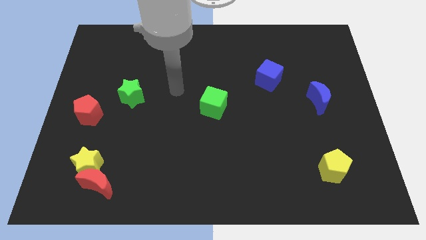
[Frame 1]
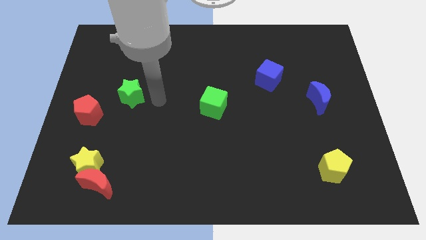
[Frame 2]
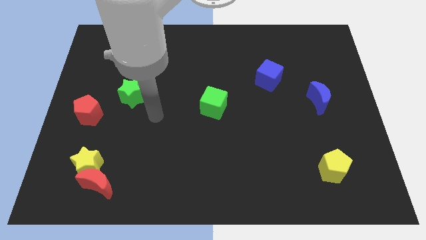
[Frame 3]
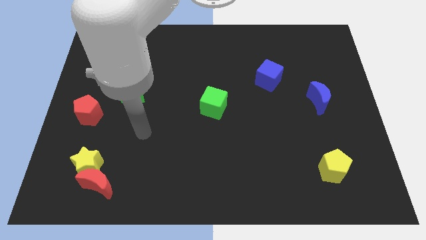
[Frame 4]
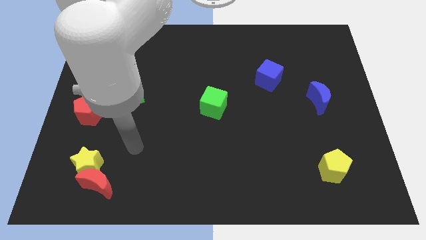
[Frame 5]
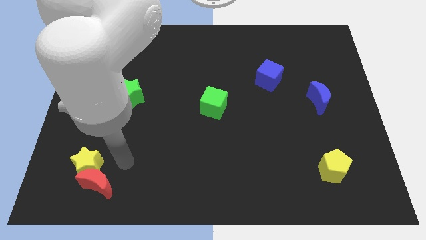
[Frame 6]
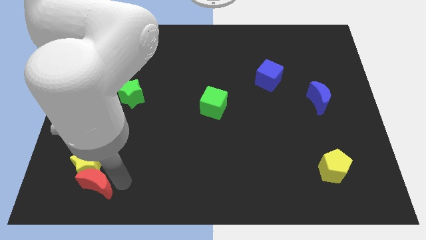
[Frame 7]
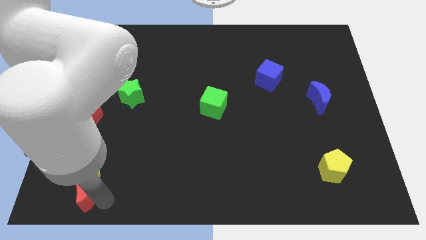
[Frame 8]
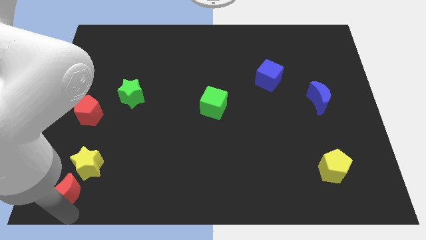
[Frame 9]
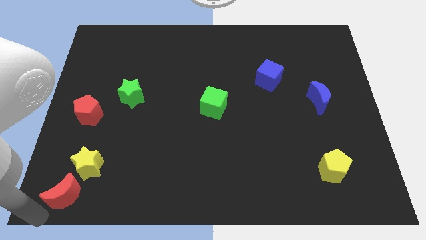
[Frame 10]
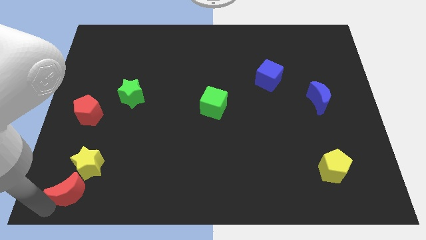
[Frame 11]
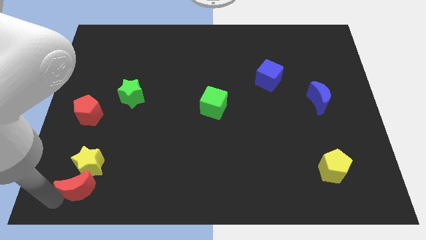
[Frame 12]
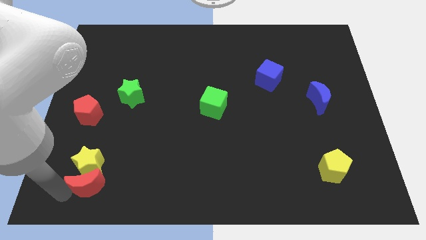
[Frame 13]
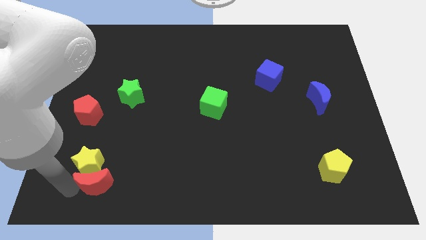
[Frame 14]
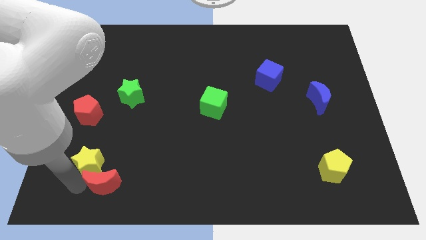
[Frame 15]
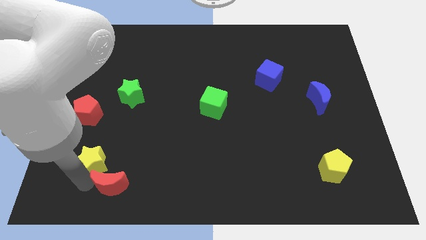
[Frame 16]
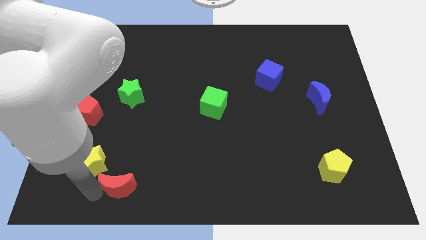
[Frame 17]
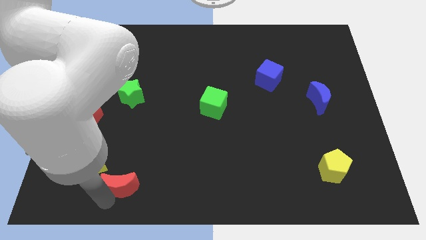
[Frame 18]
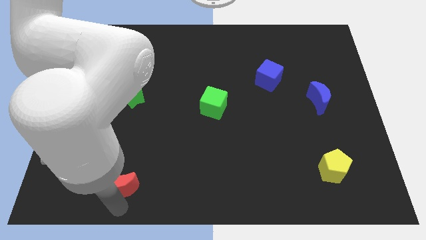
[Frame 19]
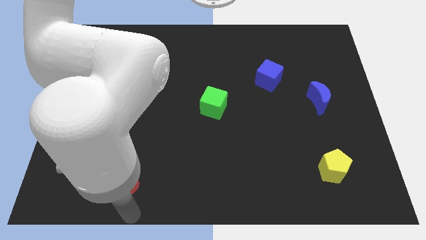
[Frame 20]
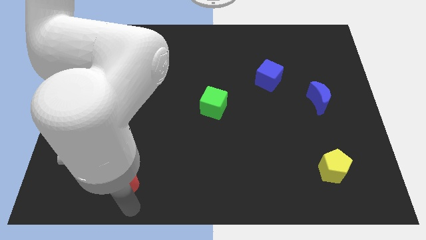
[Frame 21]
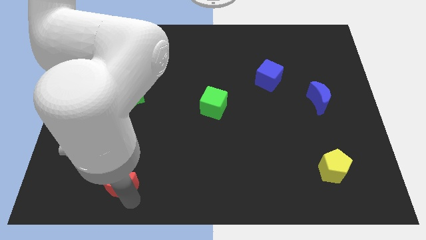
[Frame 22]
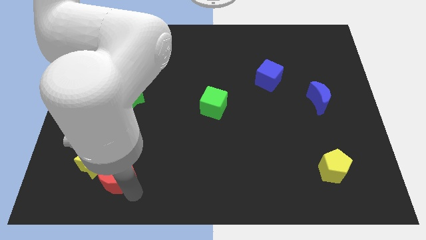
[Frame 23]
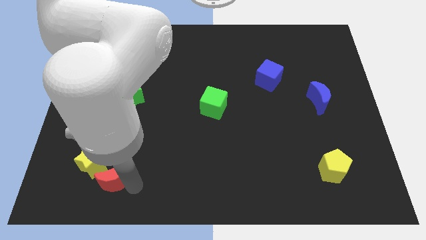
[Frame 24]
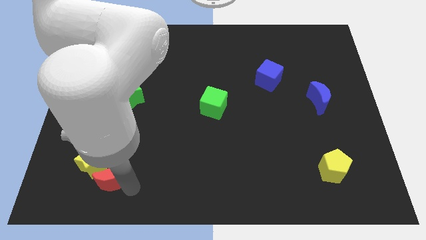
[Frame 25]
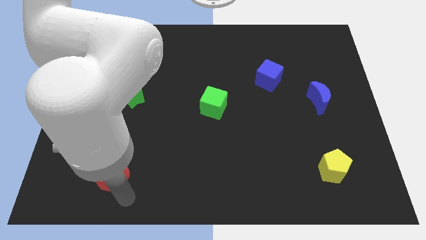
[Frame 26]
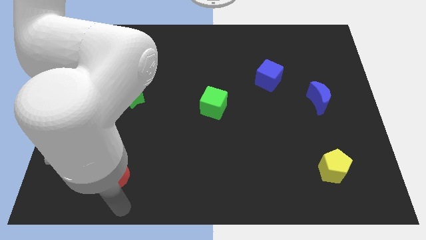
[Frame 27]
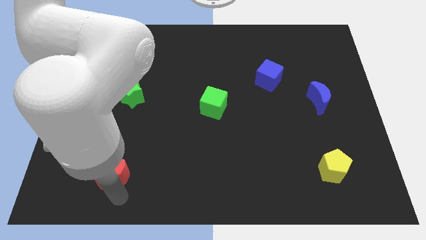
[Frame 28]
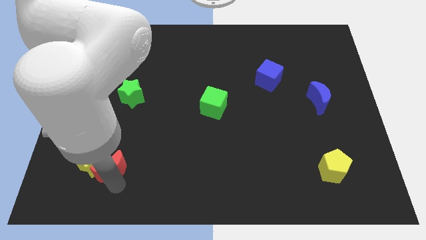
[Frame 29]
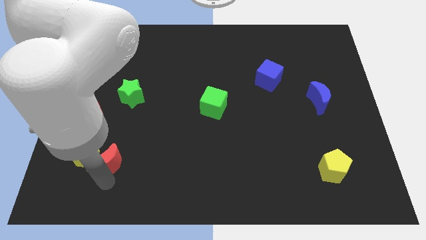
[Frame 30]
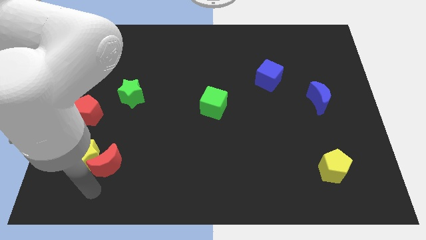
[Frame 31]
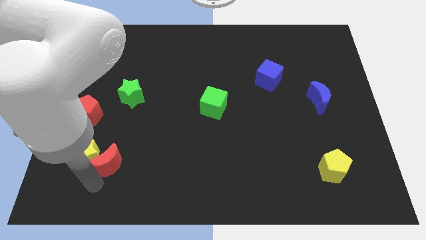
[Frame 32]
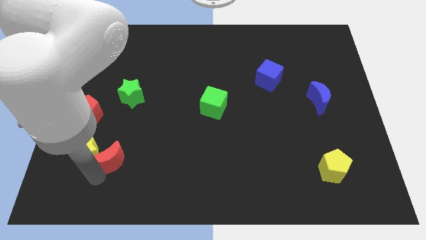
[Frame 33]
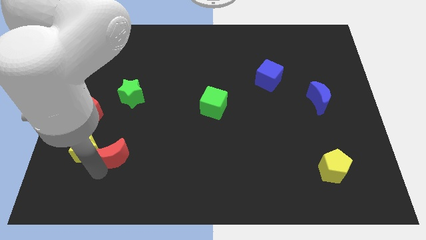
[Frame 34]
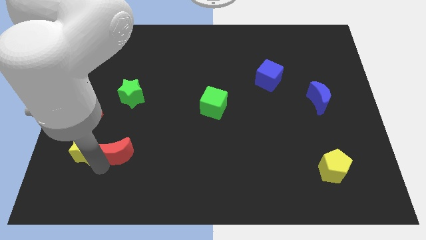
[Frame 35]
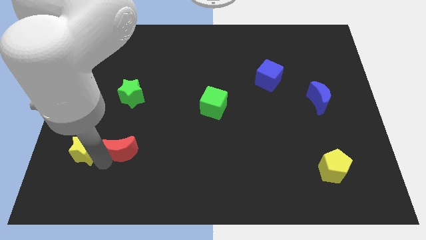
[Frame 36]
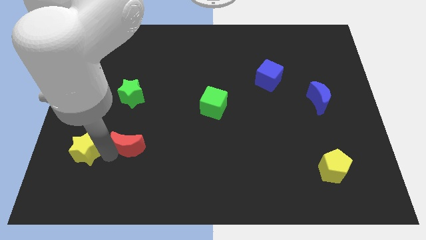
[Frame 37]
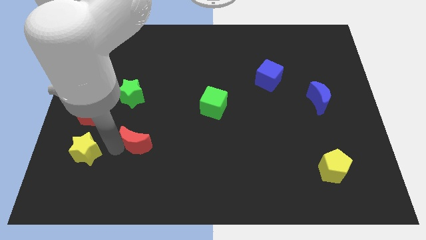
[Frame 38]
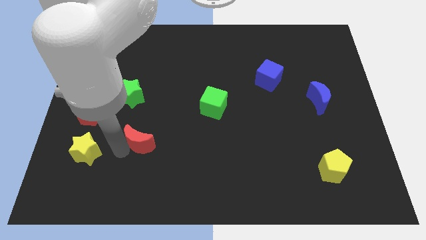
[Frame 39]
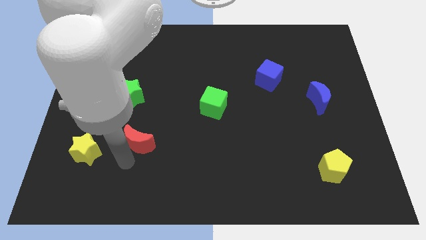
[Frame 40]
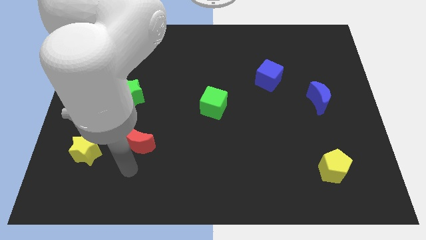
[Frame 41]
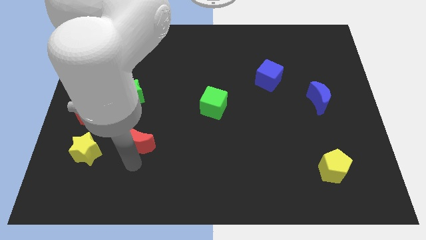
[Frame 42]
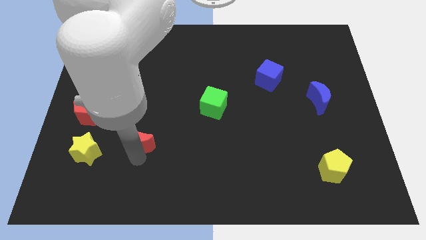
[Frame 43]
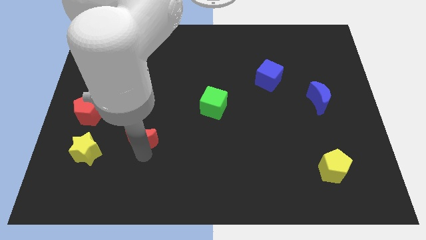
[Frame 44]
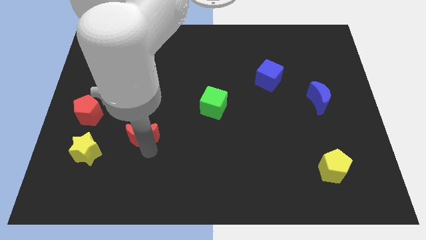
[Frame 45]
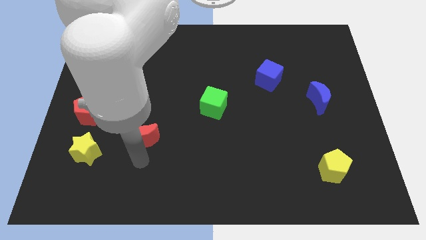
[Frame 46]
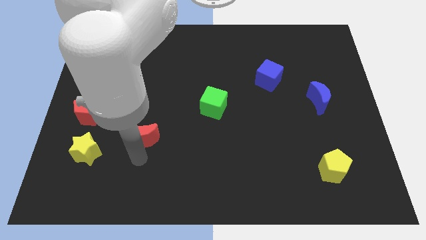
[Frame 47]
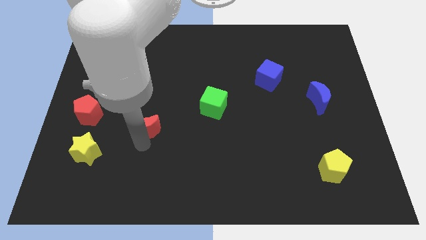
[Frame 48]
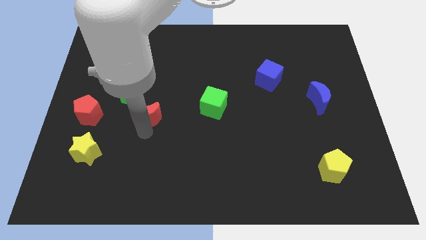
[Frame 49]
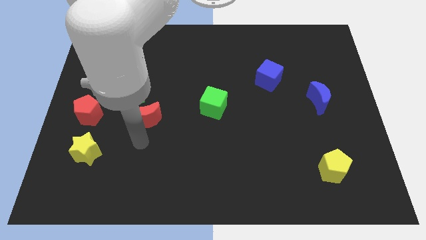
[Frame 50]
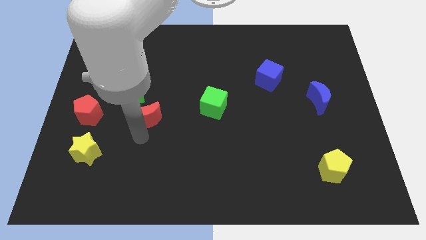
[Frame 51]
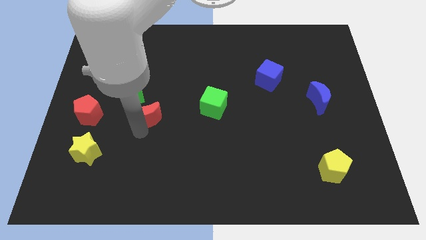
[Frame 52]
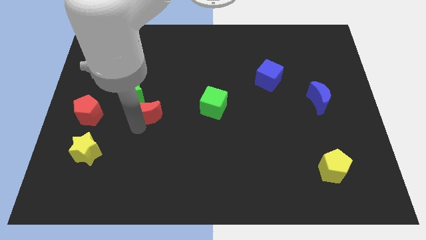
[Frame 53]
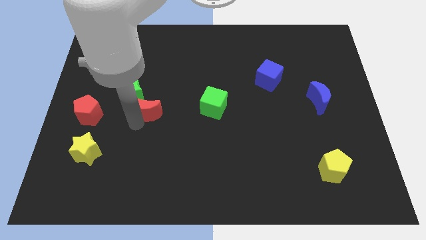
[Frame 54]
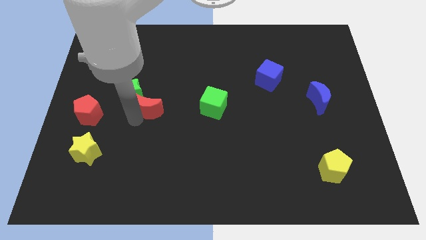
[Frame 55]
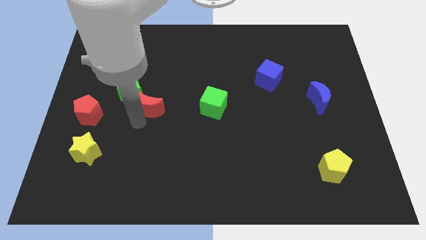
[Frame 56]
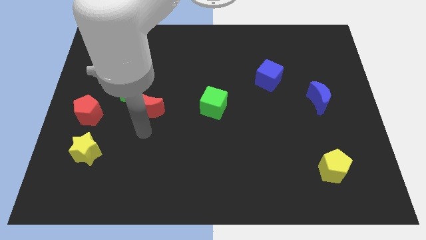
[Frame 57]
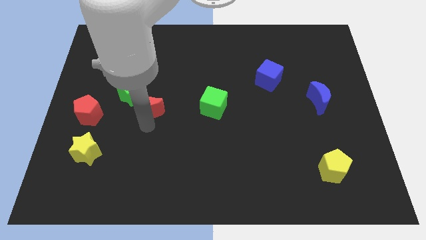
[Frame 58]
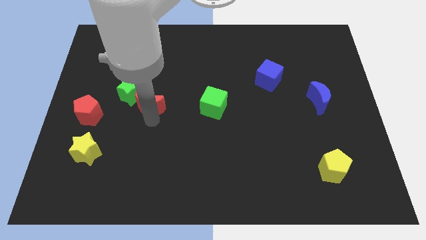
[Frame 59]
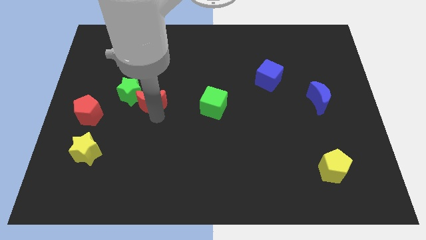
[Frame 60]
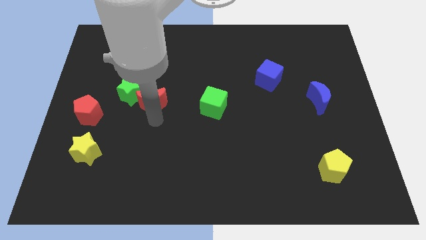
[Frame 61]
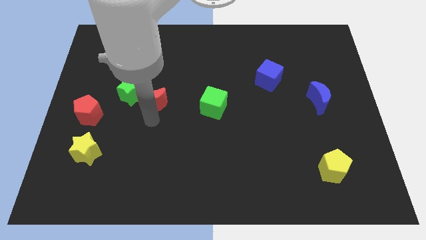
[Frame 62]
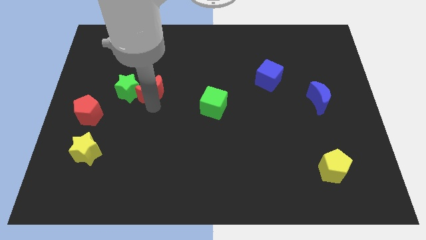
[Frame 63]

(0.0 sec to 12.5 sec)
push the red moon to the top right side of the green star

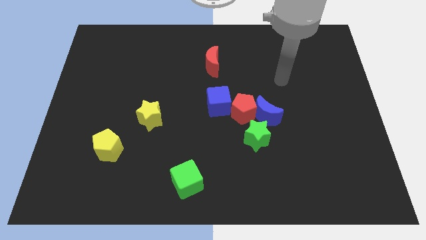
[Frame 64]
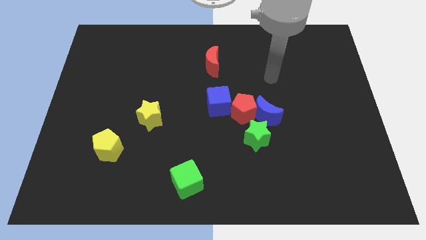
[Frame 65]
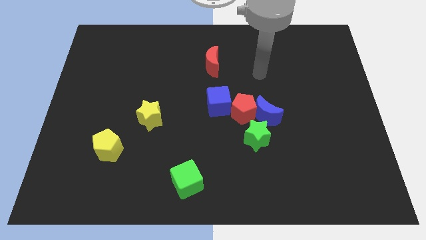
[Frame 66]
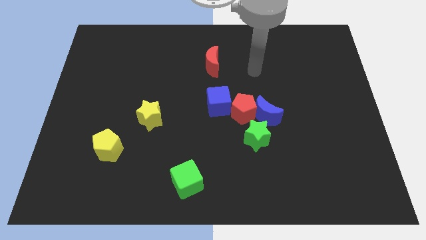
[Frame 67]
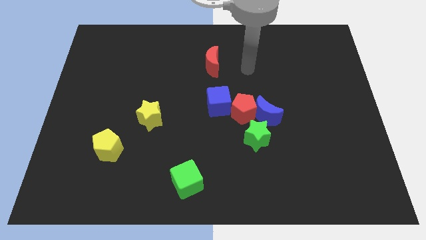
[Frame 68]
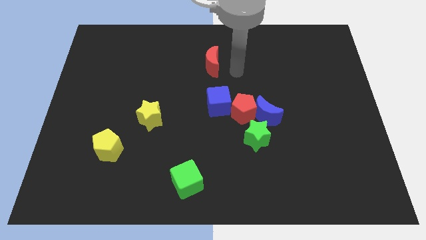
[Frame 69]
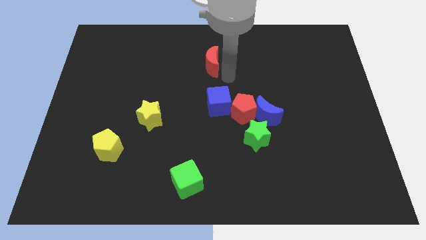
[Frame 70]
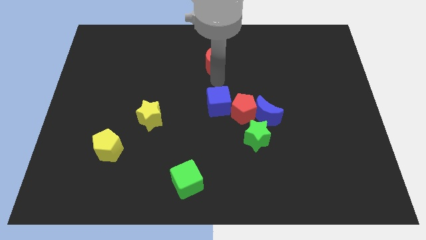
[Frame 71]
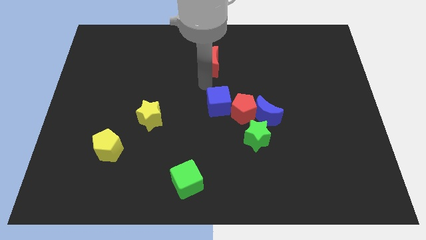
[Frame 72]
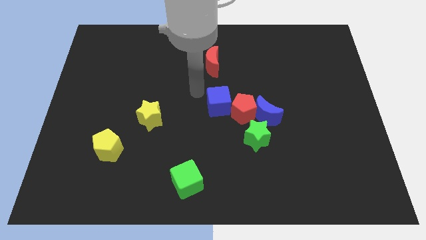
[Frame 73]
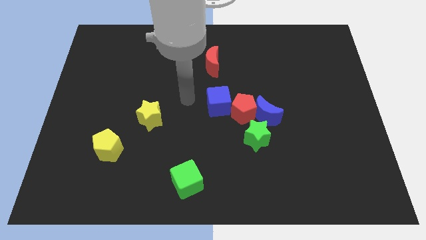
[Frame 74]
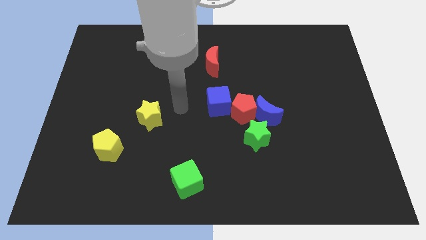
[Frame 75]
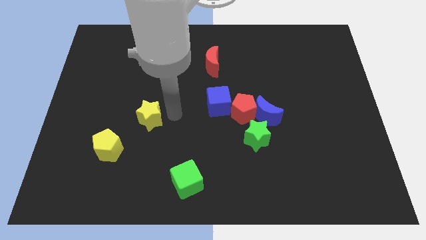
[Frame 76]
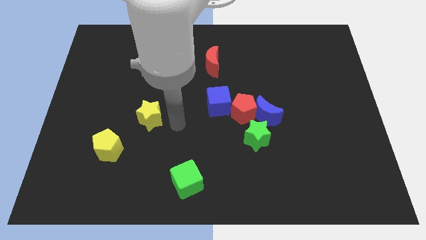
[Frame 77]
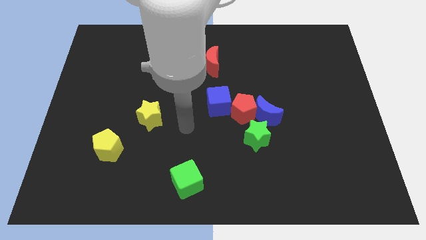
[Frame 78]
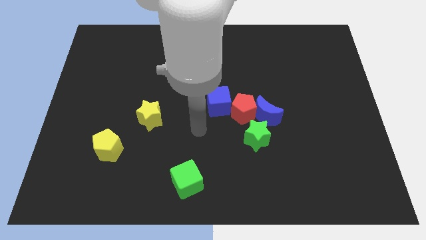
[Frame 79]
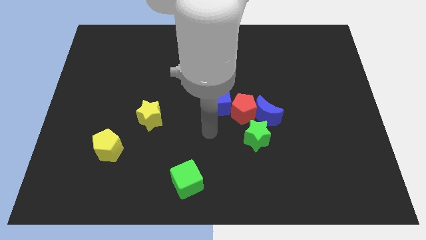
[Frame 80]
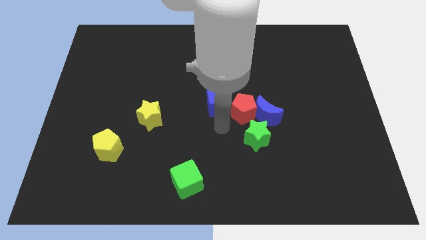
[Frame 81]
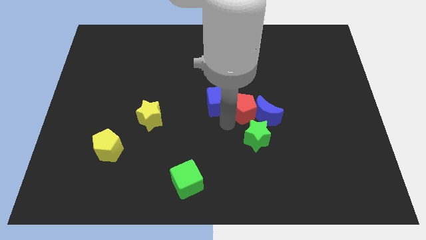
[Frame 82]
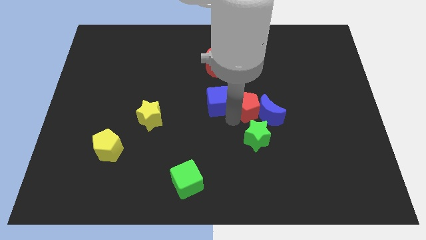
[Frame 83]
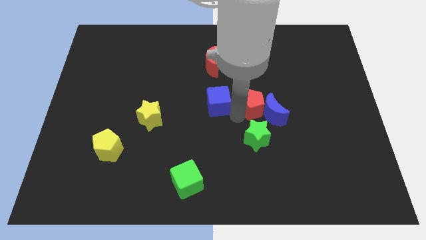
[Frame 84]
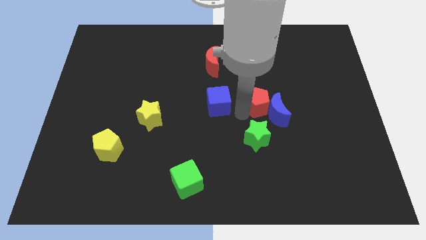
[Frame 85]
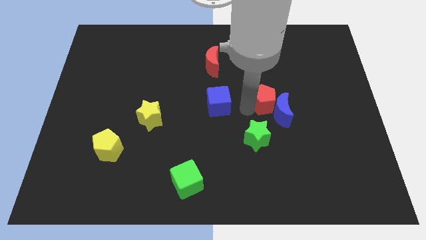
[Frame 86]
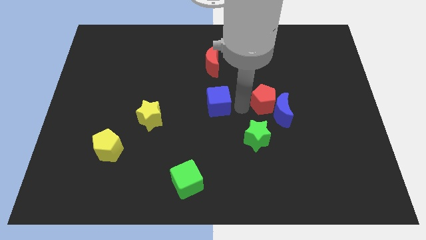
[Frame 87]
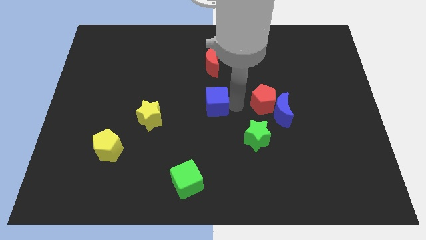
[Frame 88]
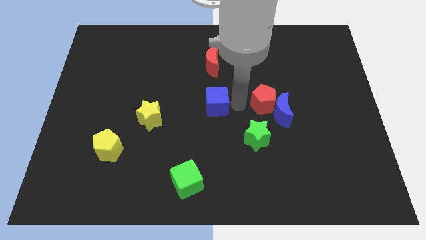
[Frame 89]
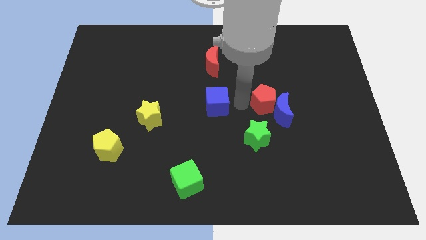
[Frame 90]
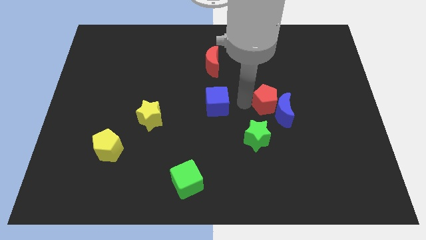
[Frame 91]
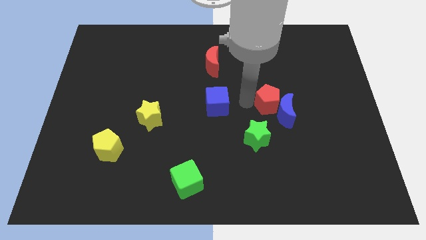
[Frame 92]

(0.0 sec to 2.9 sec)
move the red pentagon to the top right of the green star
